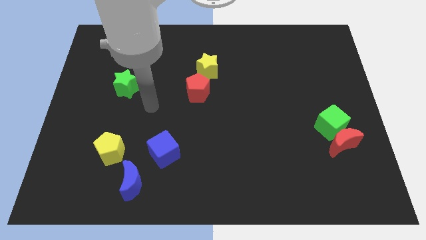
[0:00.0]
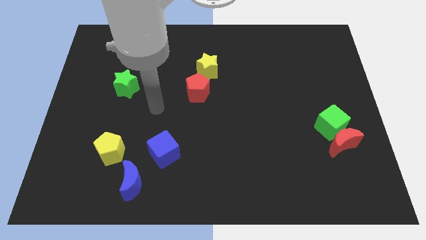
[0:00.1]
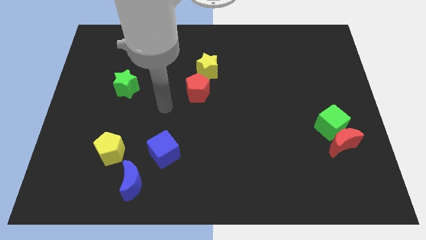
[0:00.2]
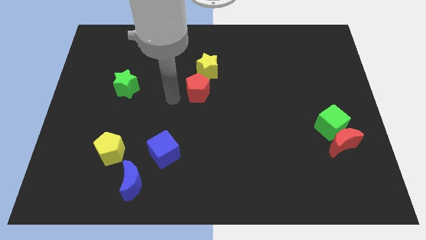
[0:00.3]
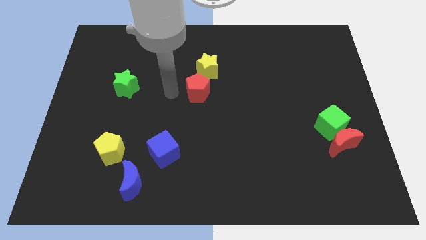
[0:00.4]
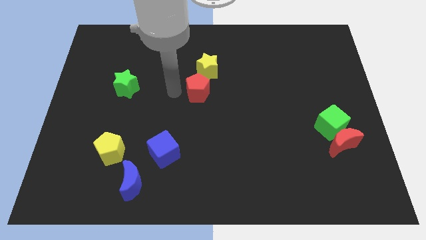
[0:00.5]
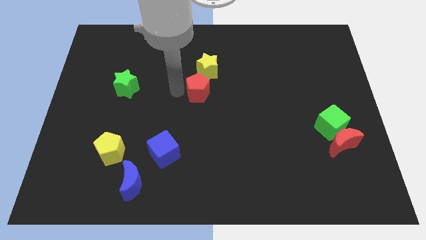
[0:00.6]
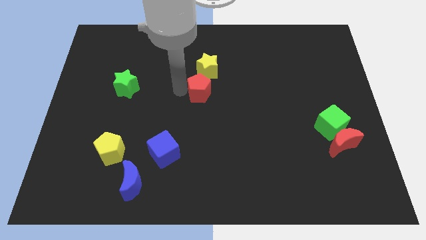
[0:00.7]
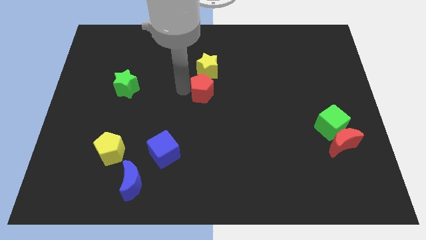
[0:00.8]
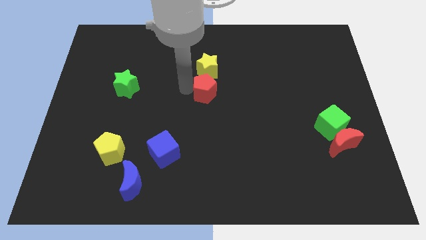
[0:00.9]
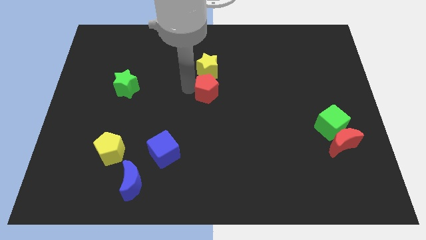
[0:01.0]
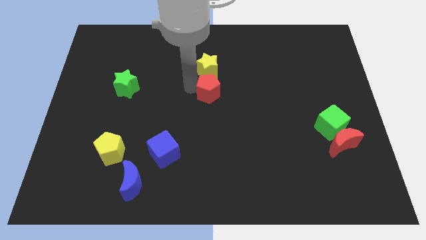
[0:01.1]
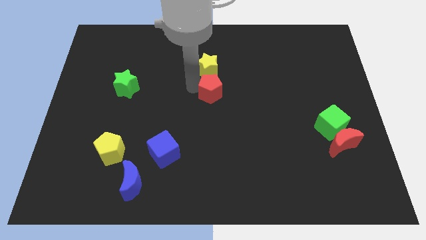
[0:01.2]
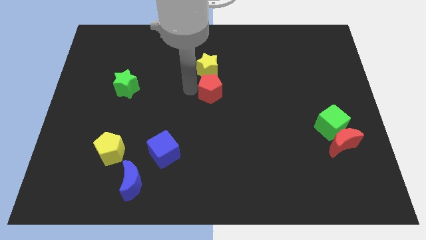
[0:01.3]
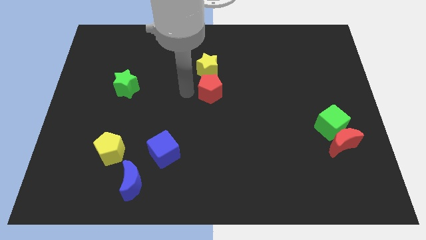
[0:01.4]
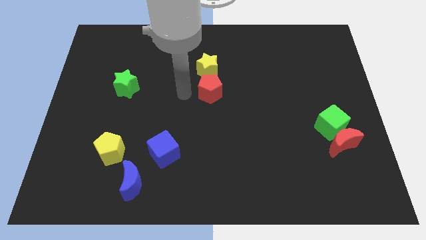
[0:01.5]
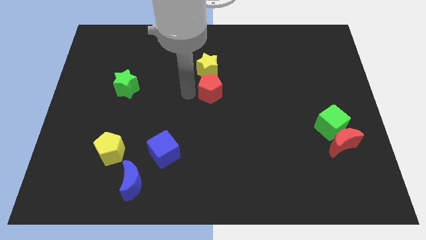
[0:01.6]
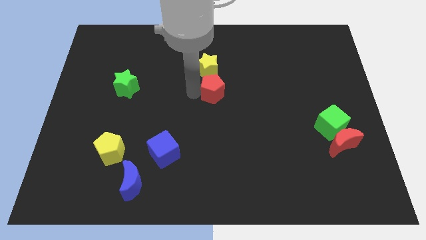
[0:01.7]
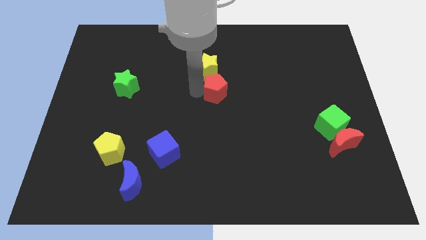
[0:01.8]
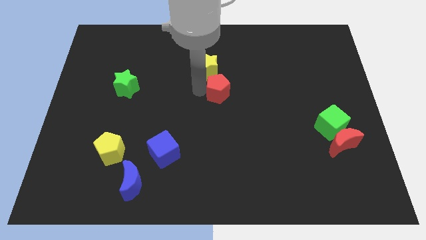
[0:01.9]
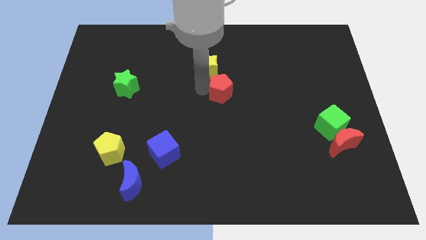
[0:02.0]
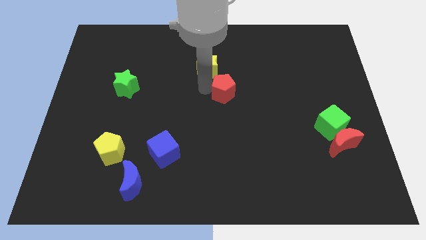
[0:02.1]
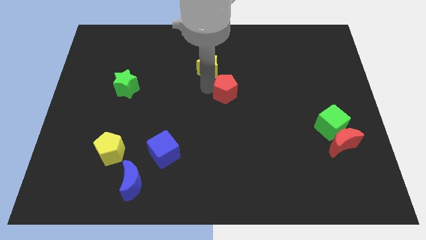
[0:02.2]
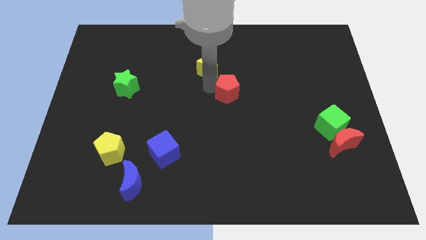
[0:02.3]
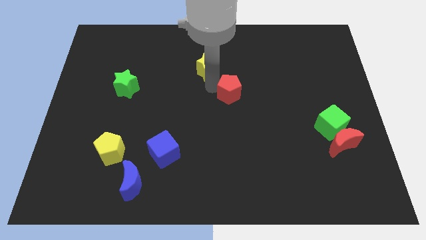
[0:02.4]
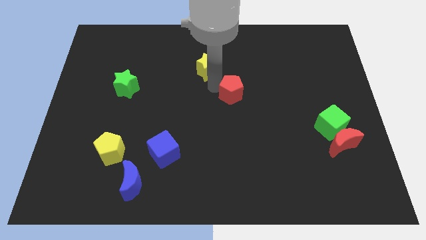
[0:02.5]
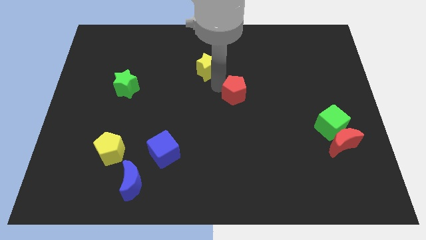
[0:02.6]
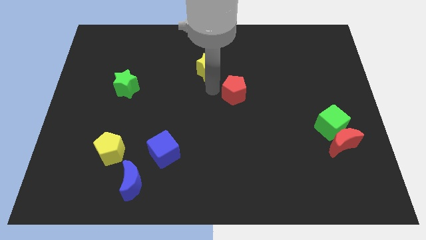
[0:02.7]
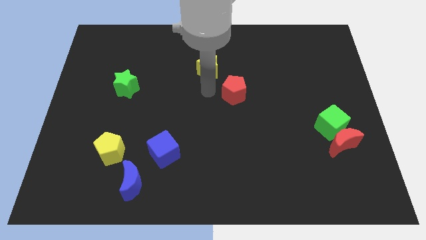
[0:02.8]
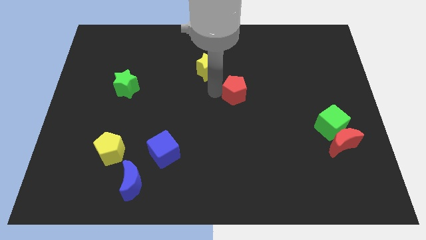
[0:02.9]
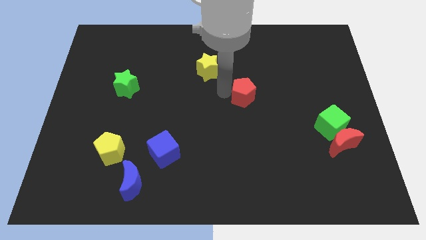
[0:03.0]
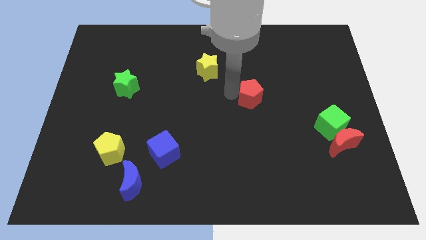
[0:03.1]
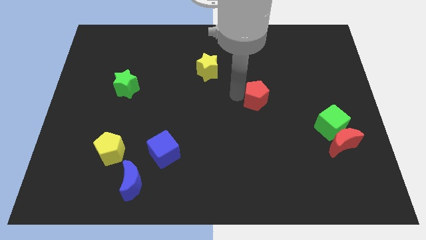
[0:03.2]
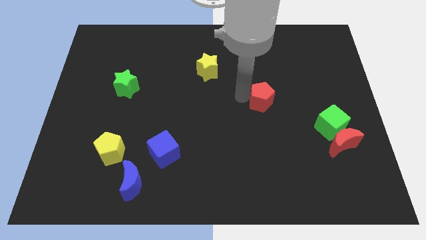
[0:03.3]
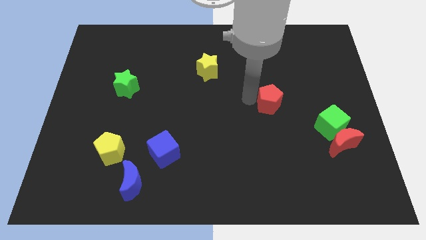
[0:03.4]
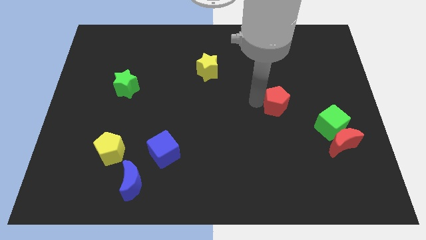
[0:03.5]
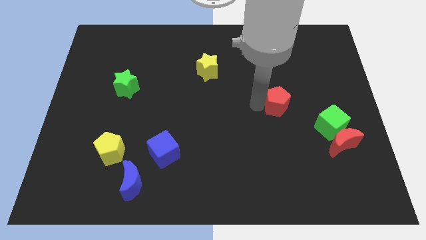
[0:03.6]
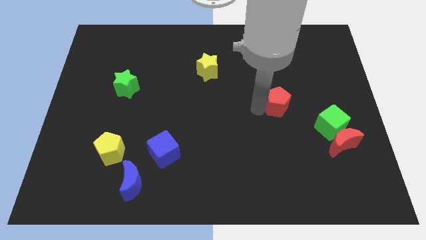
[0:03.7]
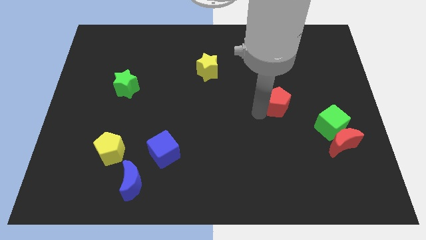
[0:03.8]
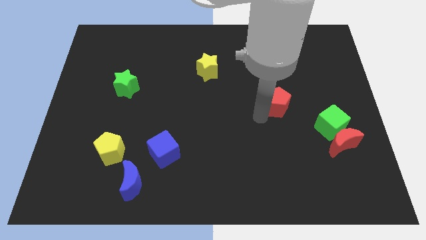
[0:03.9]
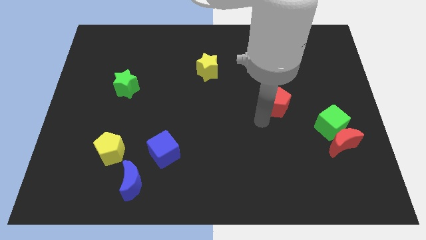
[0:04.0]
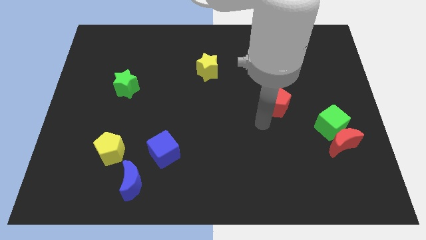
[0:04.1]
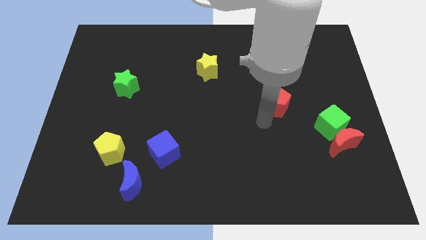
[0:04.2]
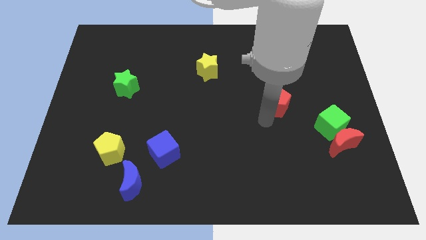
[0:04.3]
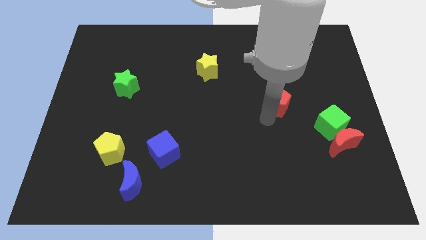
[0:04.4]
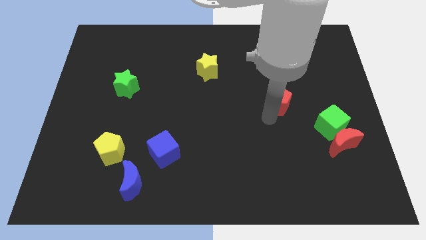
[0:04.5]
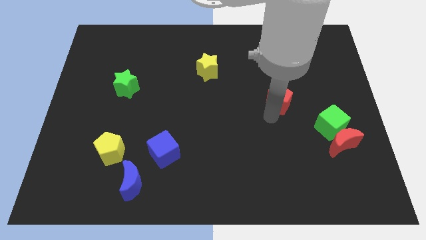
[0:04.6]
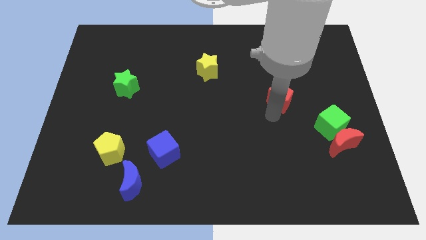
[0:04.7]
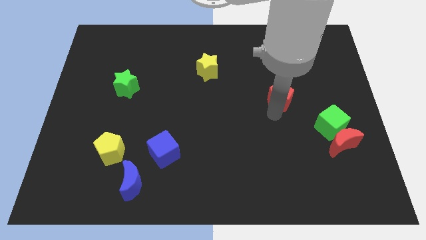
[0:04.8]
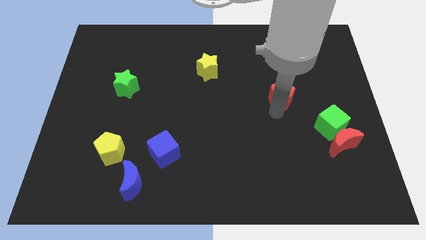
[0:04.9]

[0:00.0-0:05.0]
move the red pentagon to the right

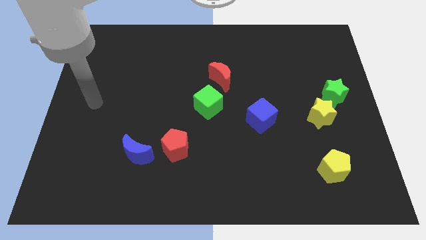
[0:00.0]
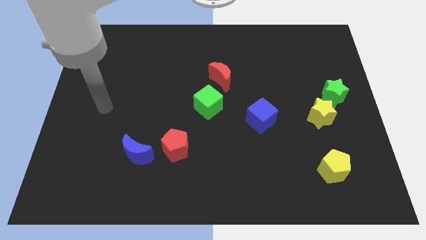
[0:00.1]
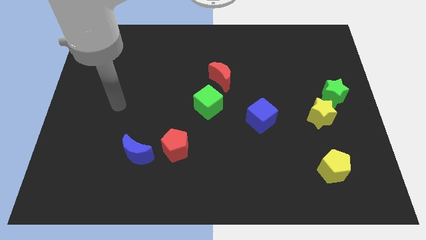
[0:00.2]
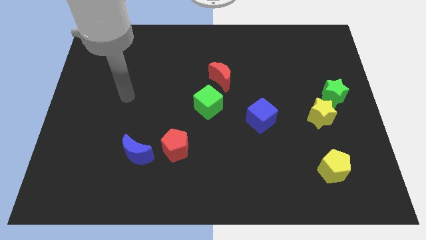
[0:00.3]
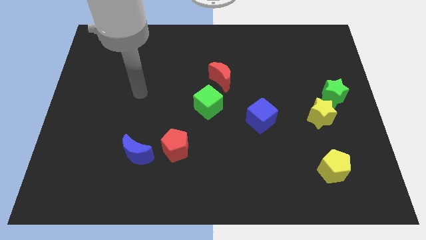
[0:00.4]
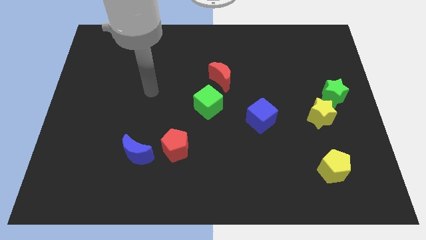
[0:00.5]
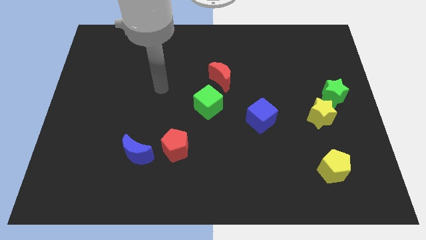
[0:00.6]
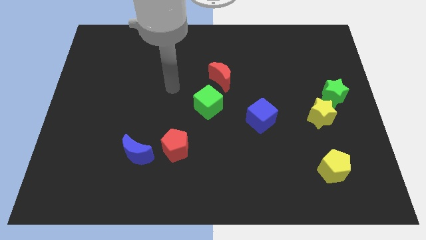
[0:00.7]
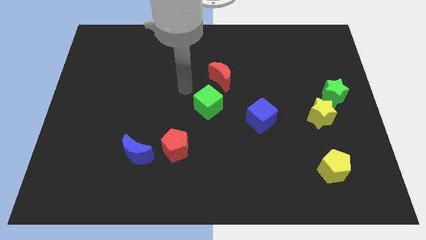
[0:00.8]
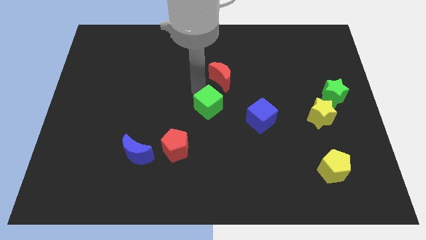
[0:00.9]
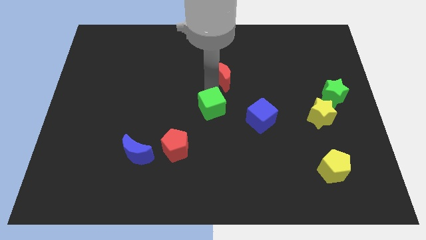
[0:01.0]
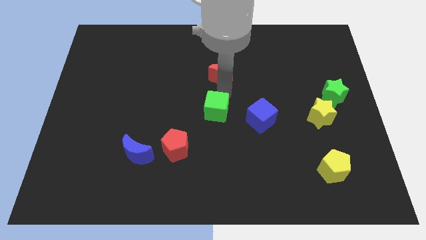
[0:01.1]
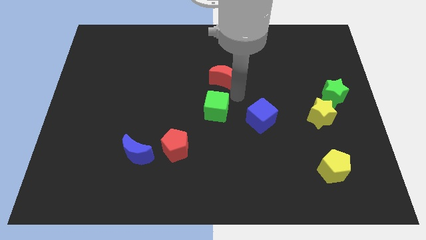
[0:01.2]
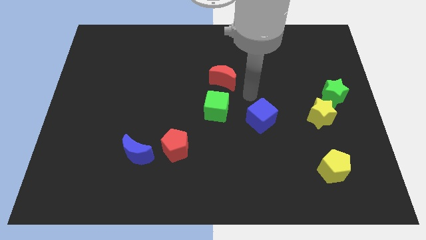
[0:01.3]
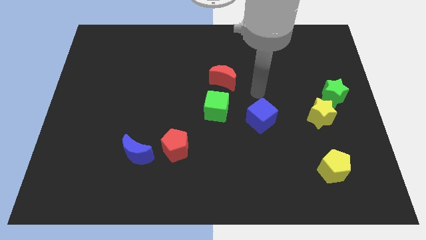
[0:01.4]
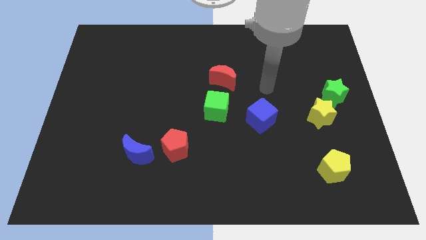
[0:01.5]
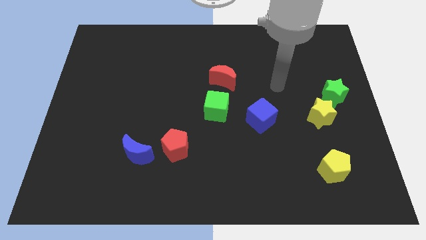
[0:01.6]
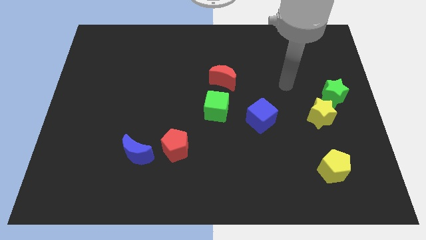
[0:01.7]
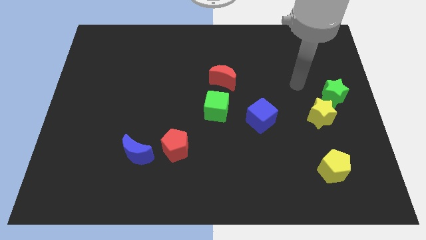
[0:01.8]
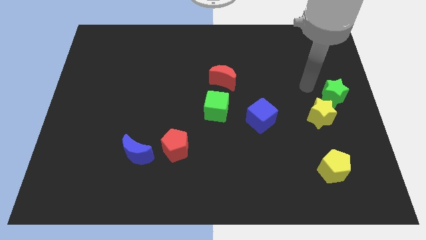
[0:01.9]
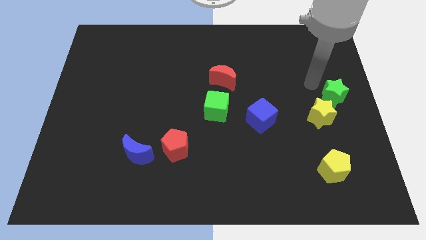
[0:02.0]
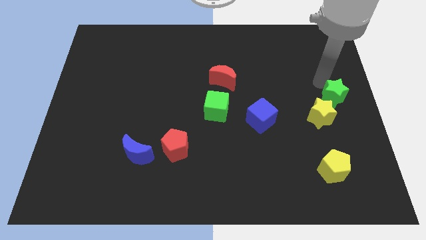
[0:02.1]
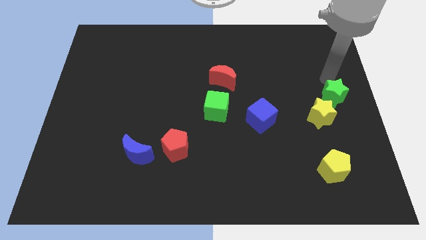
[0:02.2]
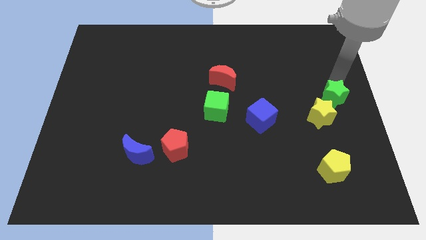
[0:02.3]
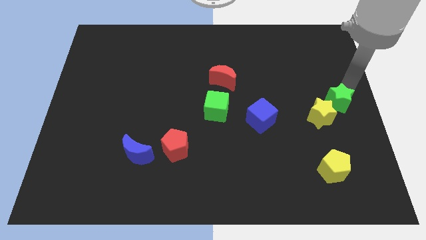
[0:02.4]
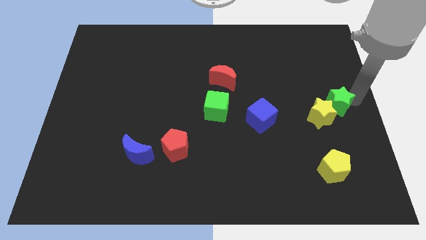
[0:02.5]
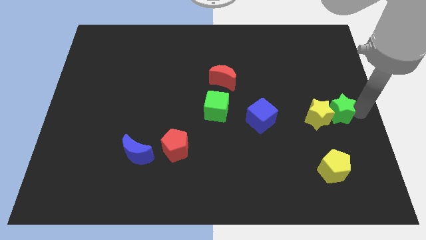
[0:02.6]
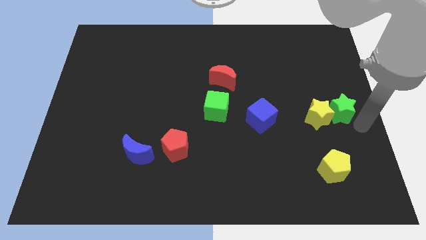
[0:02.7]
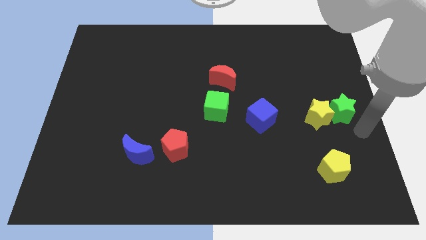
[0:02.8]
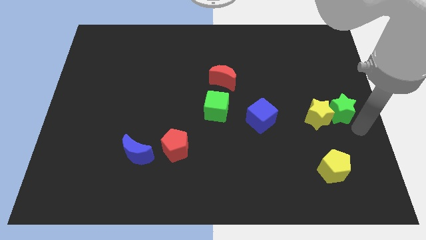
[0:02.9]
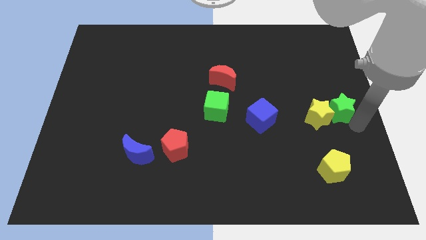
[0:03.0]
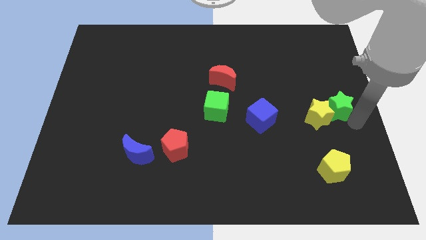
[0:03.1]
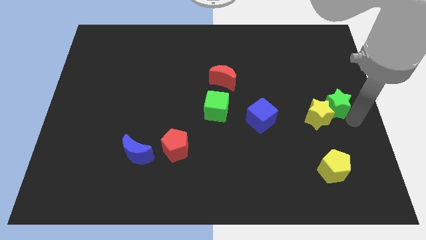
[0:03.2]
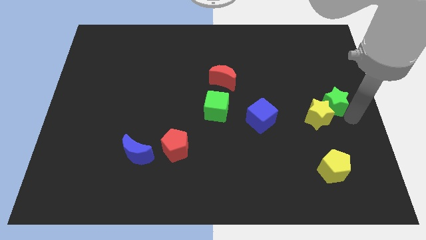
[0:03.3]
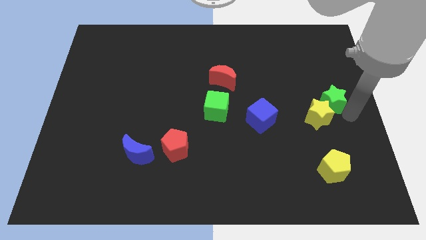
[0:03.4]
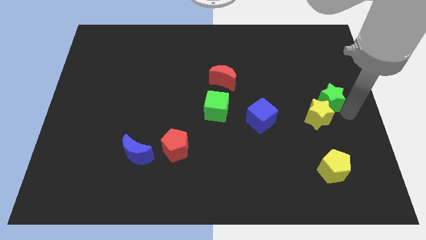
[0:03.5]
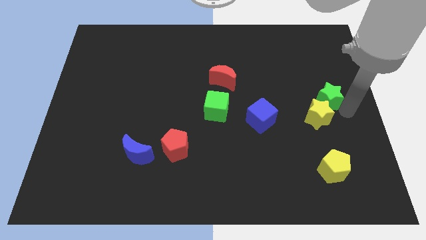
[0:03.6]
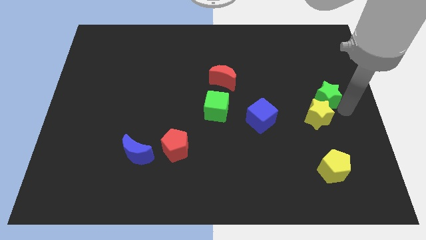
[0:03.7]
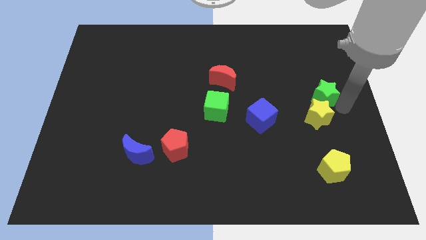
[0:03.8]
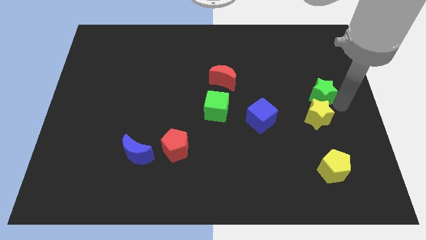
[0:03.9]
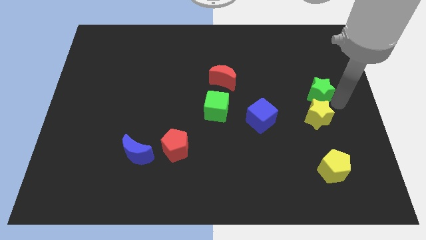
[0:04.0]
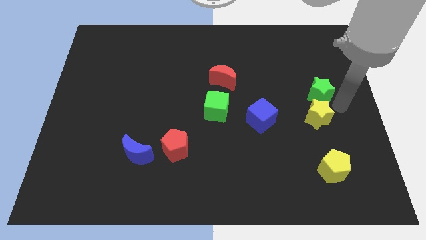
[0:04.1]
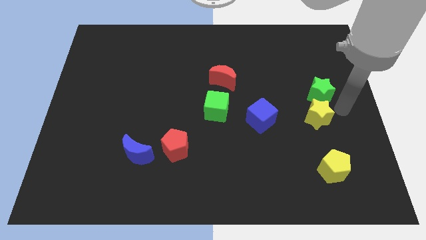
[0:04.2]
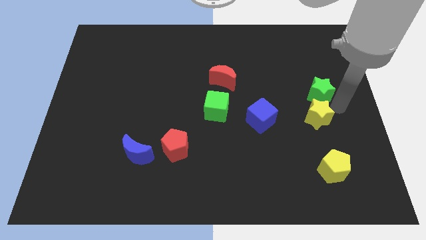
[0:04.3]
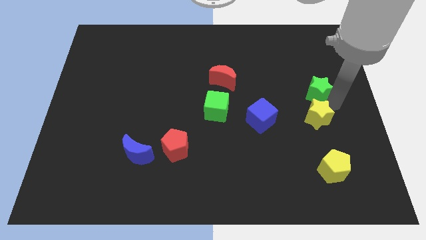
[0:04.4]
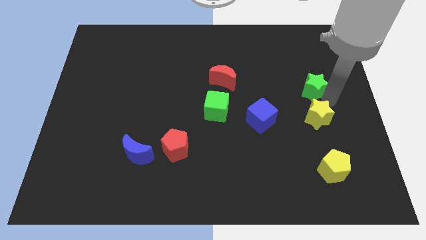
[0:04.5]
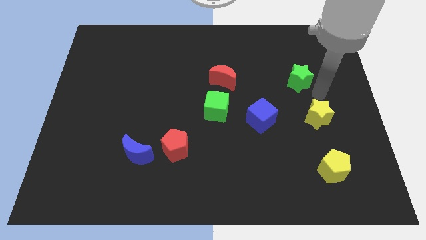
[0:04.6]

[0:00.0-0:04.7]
slightly push the green star diagonally up and to the left
